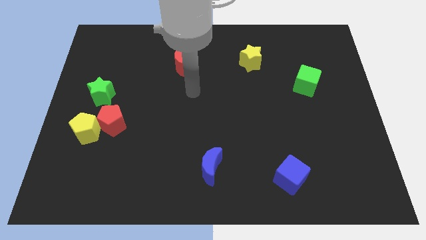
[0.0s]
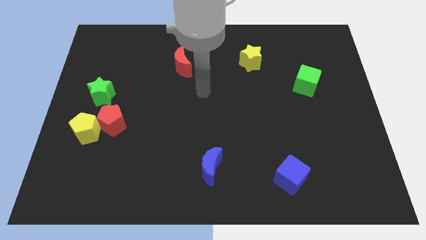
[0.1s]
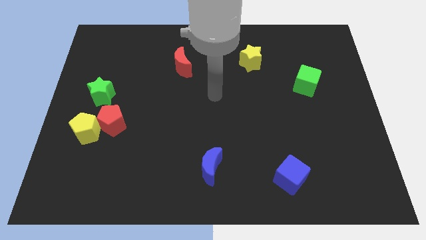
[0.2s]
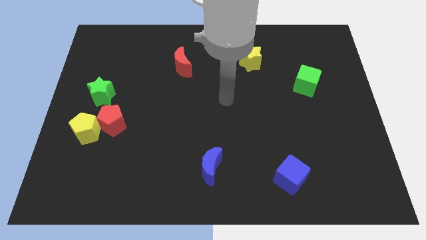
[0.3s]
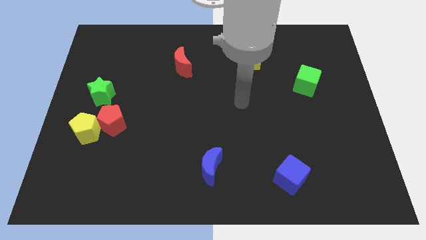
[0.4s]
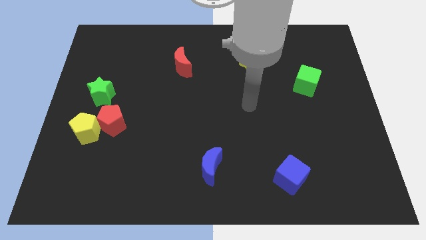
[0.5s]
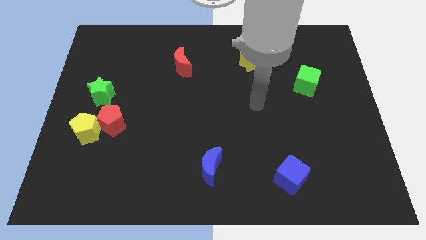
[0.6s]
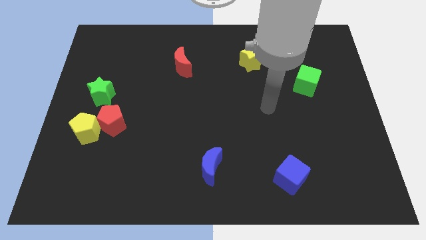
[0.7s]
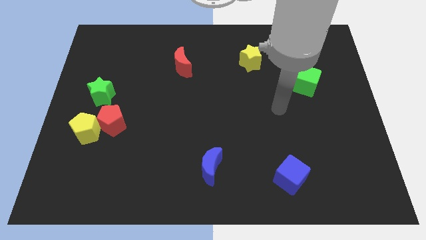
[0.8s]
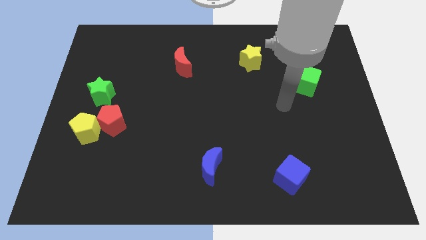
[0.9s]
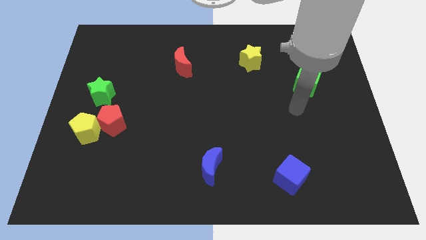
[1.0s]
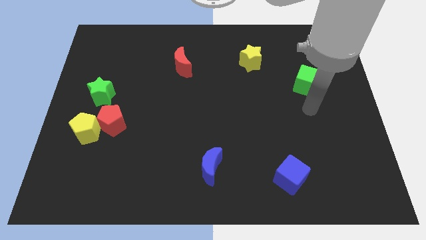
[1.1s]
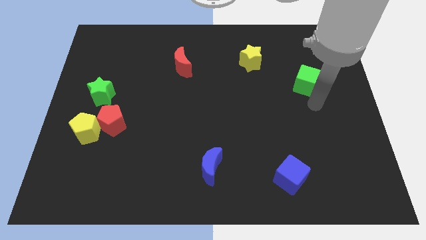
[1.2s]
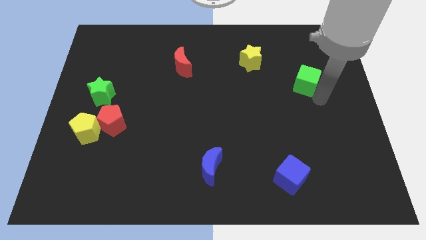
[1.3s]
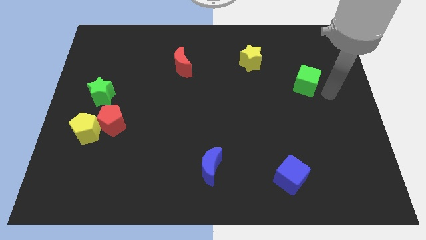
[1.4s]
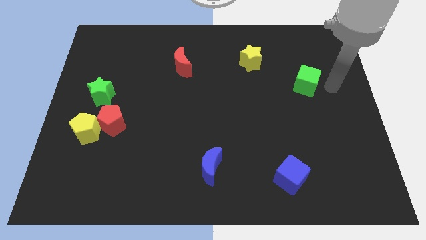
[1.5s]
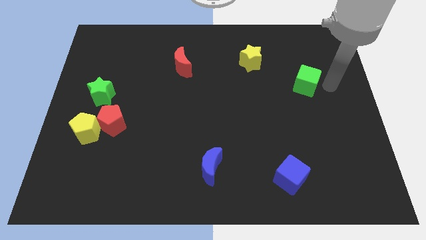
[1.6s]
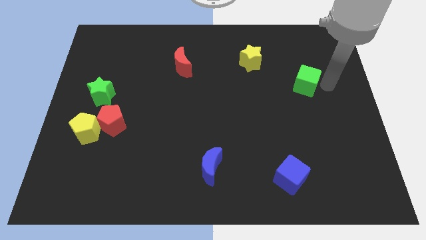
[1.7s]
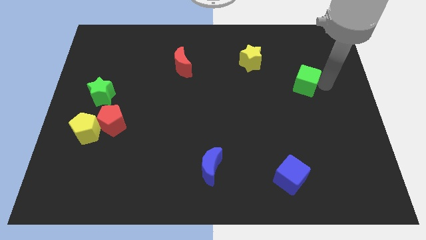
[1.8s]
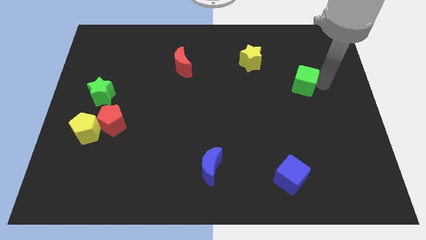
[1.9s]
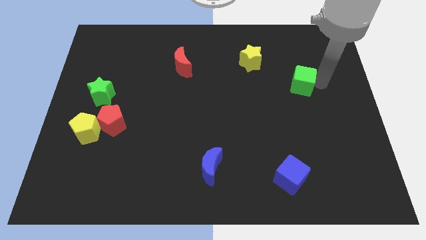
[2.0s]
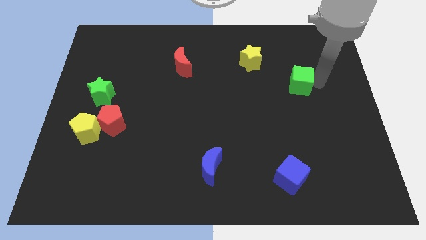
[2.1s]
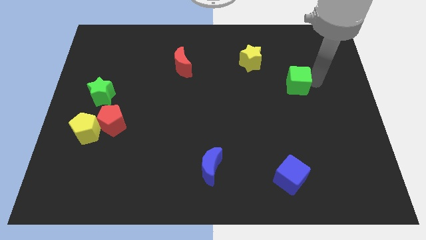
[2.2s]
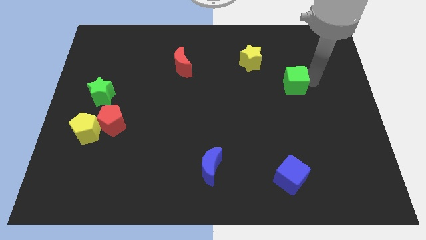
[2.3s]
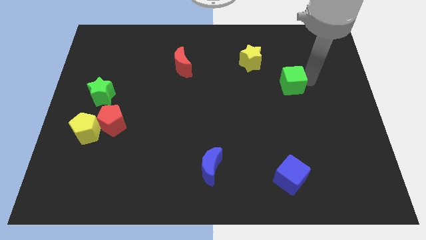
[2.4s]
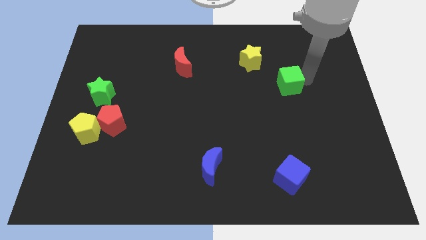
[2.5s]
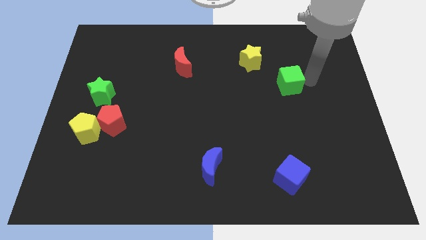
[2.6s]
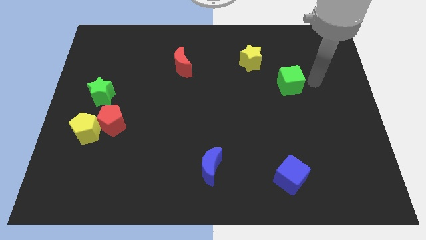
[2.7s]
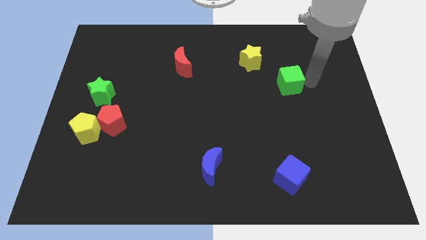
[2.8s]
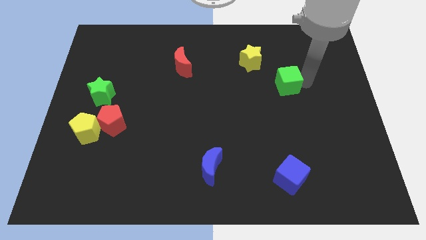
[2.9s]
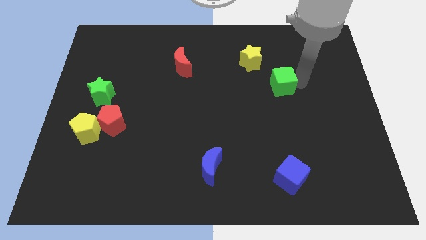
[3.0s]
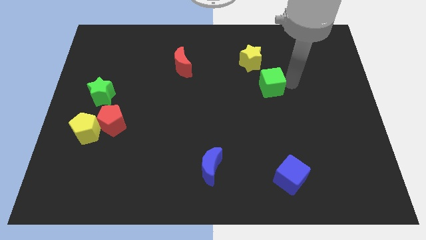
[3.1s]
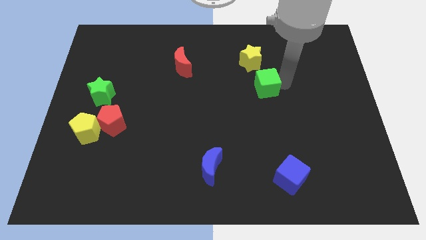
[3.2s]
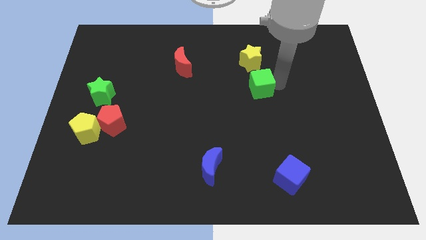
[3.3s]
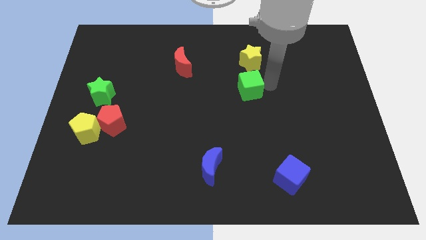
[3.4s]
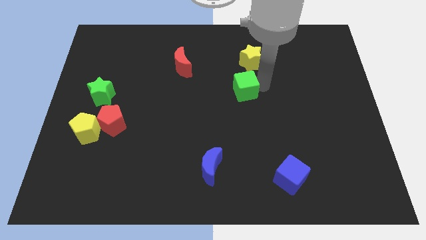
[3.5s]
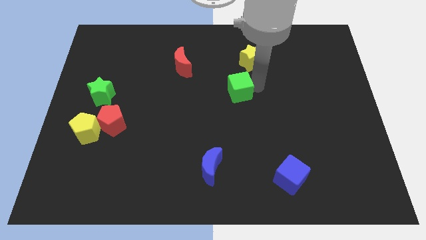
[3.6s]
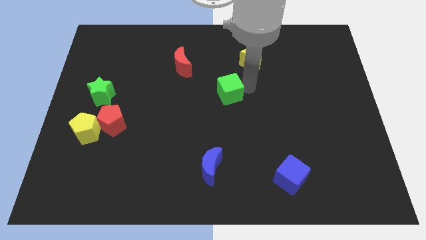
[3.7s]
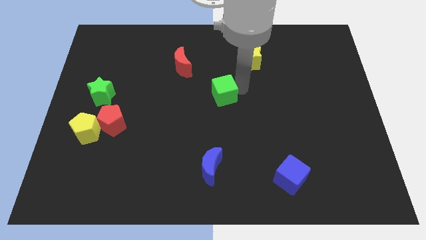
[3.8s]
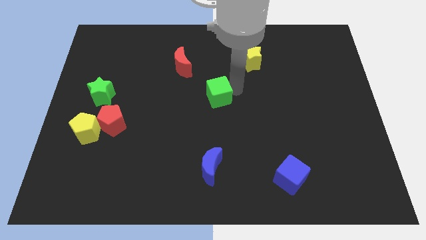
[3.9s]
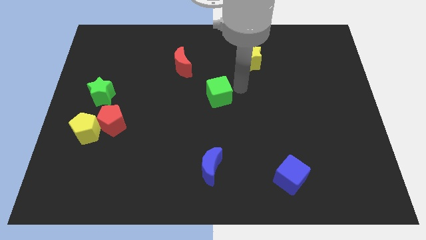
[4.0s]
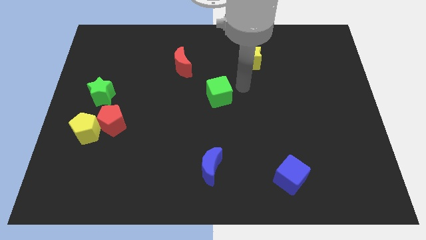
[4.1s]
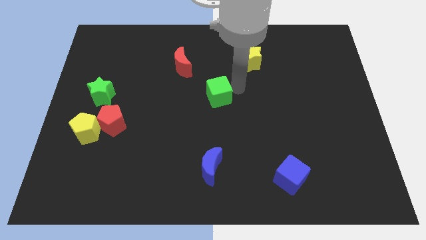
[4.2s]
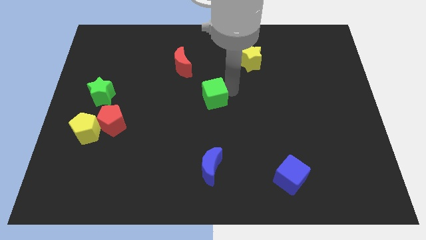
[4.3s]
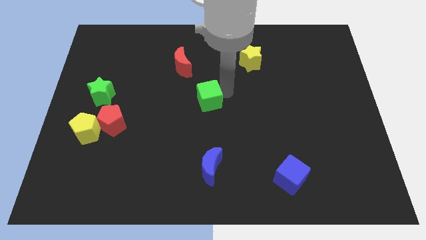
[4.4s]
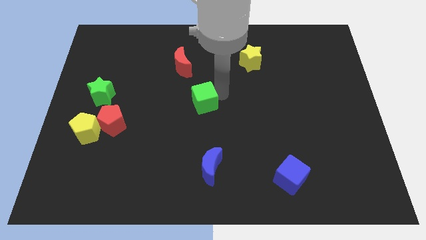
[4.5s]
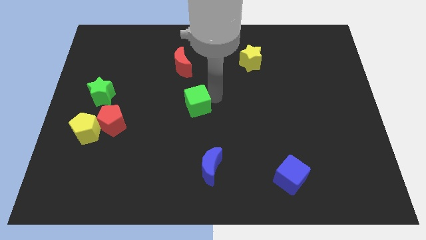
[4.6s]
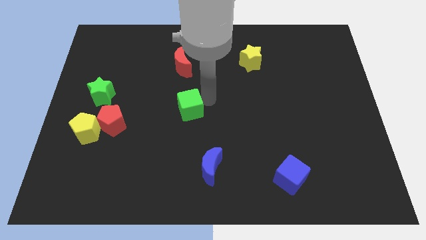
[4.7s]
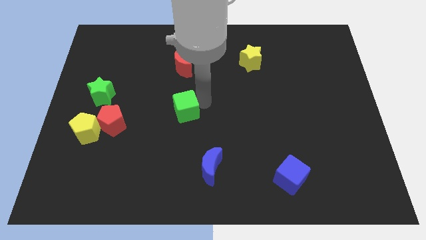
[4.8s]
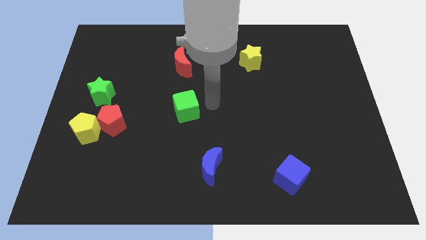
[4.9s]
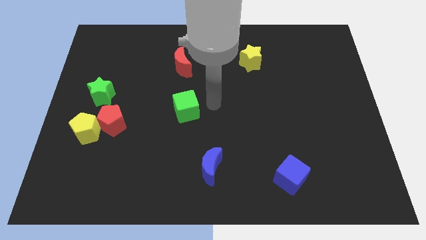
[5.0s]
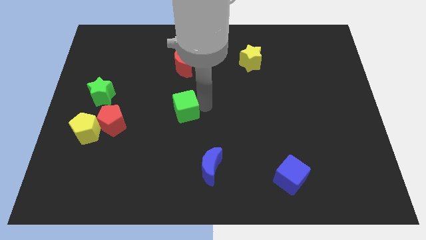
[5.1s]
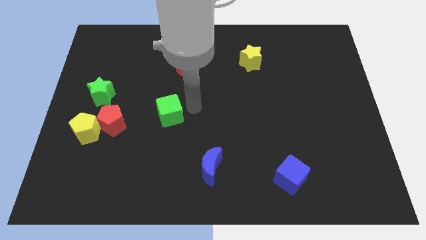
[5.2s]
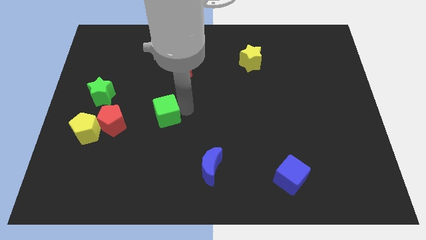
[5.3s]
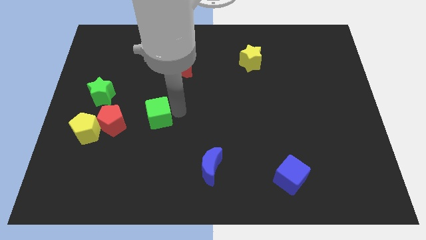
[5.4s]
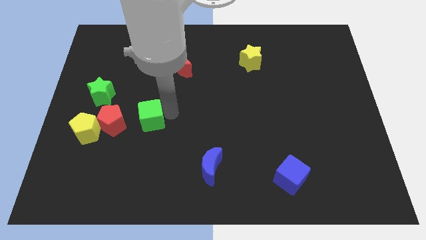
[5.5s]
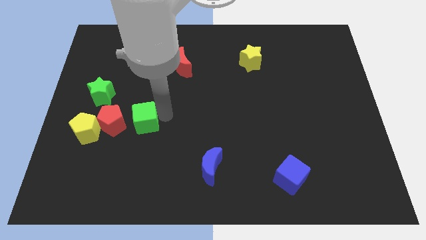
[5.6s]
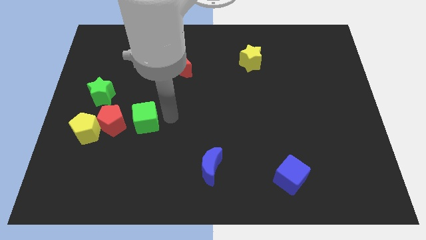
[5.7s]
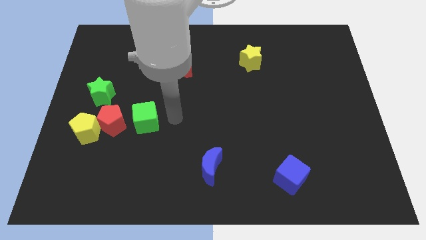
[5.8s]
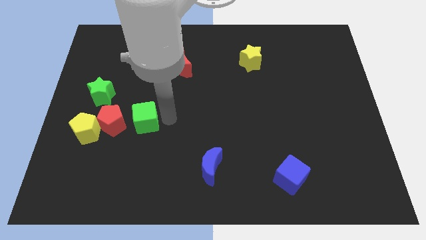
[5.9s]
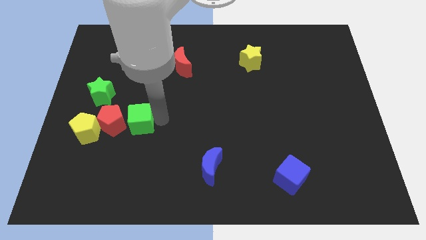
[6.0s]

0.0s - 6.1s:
move the green cube towards the red pentagon

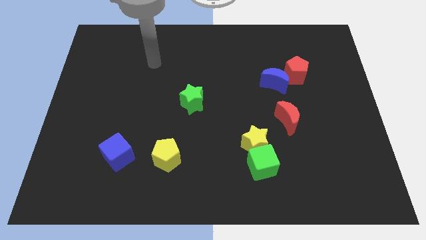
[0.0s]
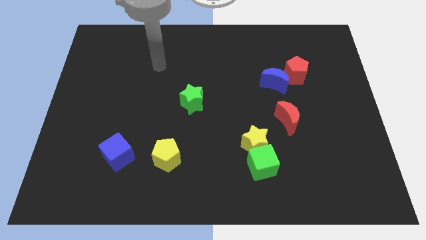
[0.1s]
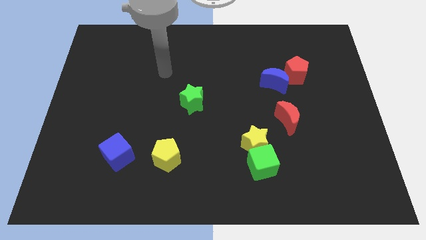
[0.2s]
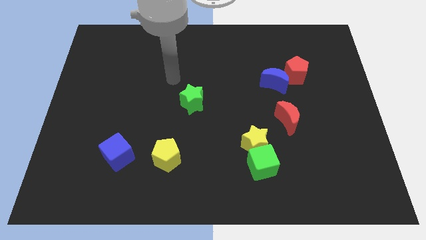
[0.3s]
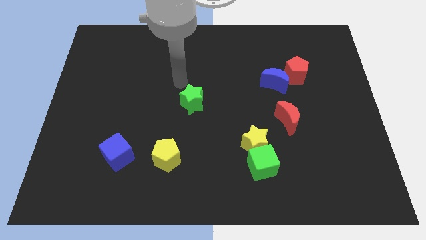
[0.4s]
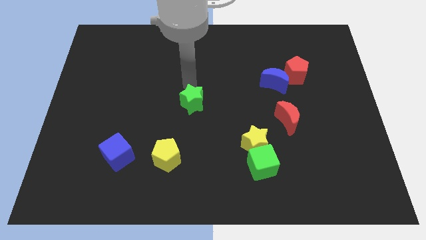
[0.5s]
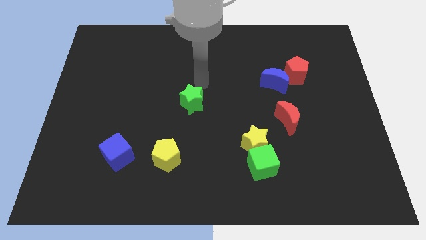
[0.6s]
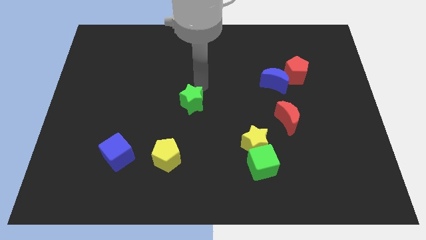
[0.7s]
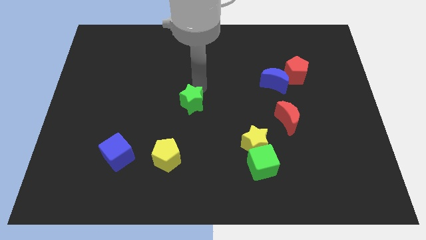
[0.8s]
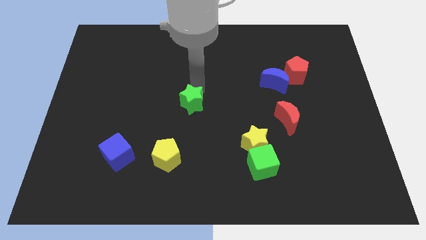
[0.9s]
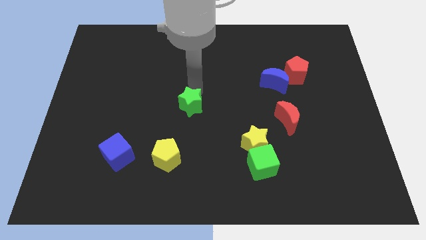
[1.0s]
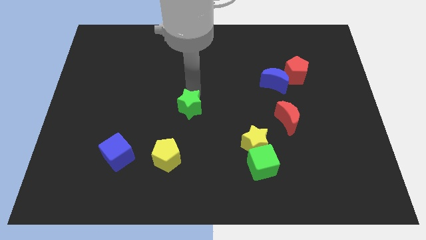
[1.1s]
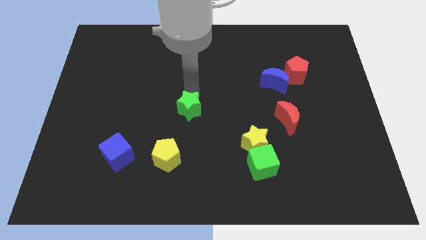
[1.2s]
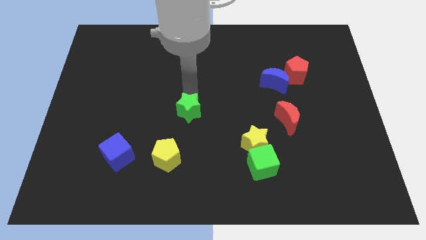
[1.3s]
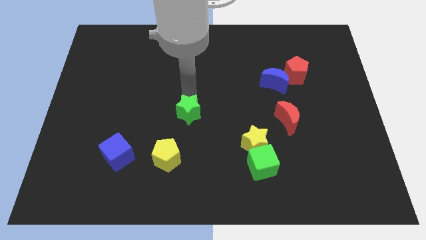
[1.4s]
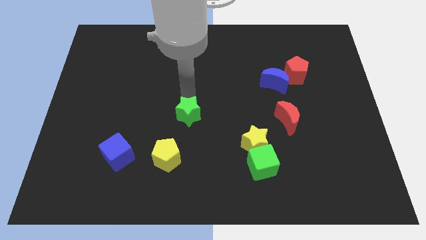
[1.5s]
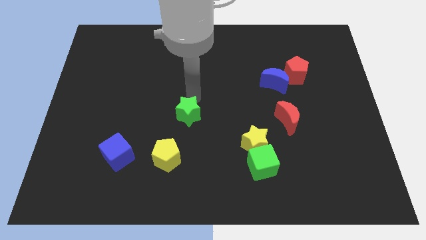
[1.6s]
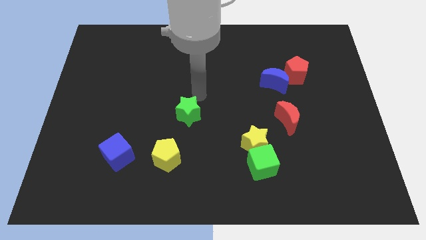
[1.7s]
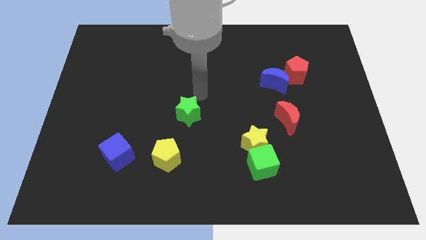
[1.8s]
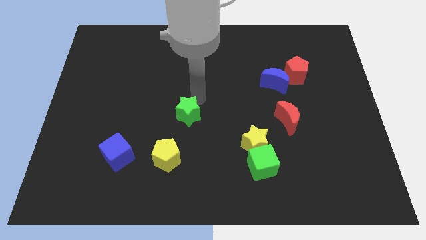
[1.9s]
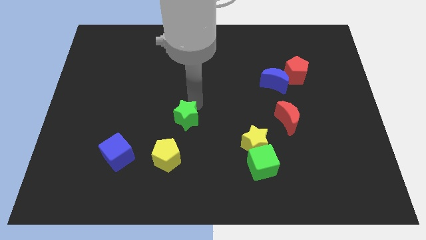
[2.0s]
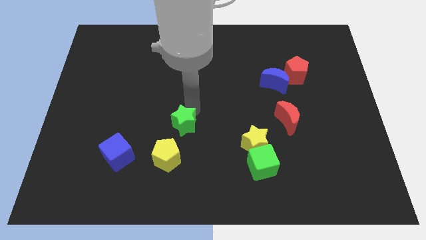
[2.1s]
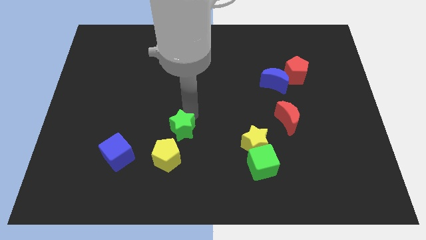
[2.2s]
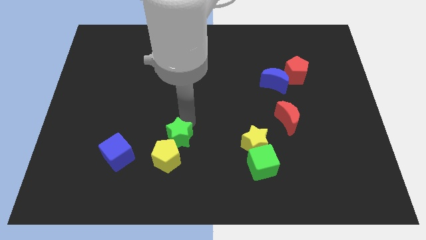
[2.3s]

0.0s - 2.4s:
put the green star towards the yellow pentagon
